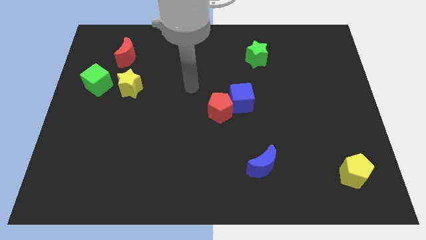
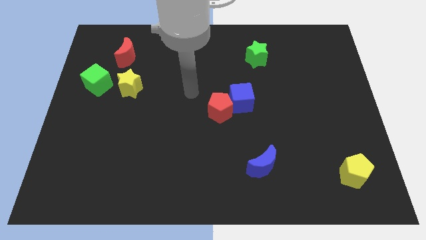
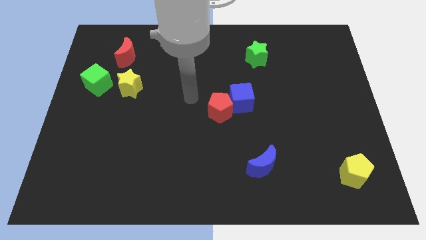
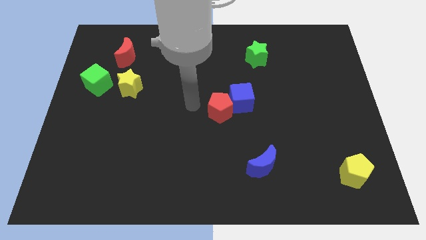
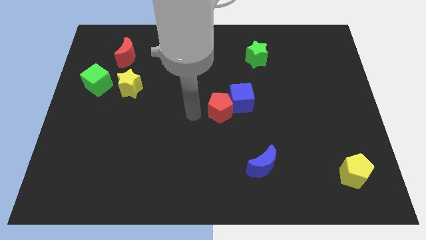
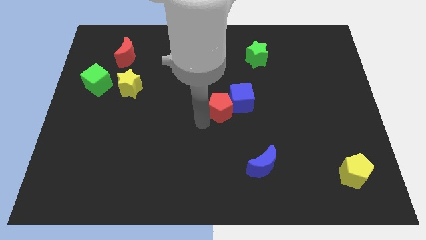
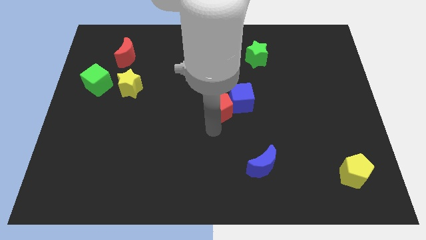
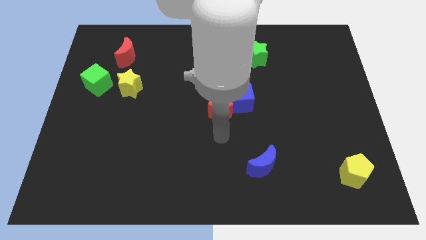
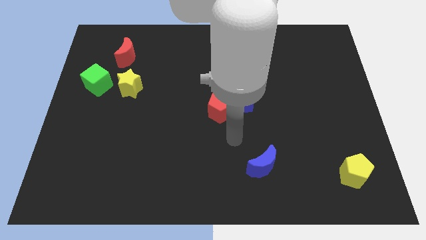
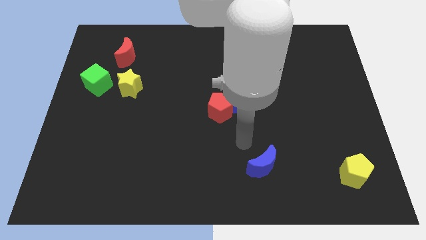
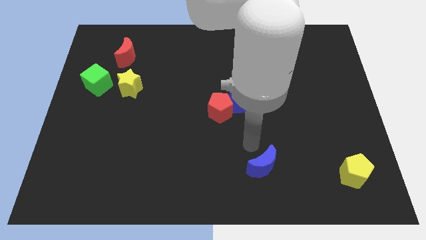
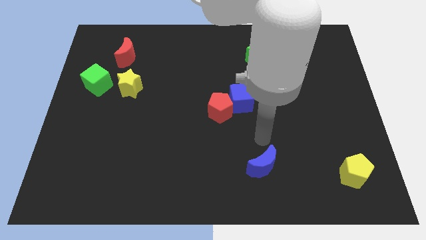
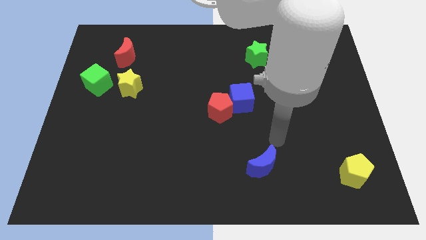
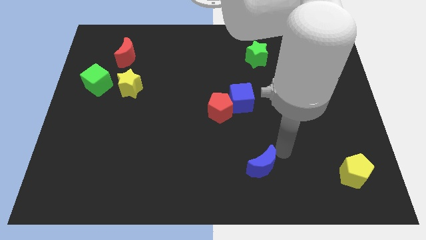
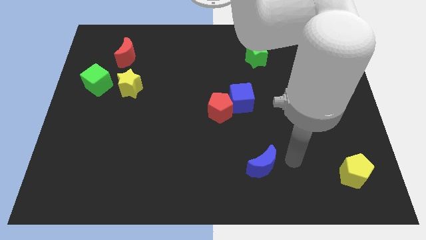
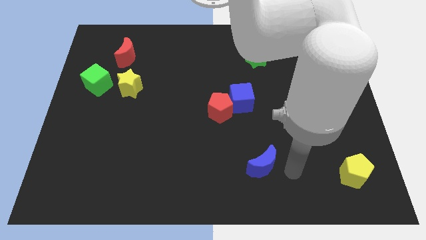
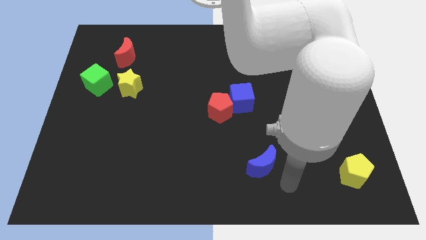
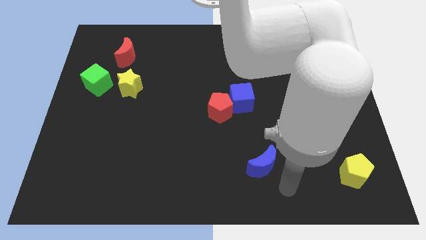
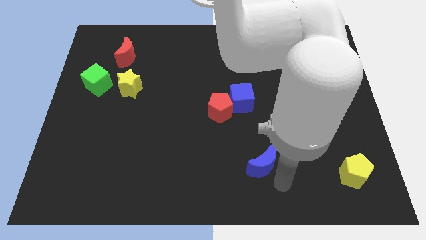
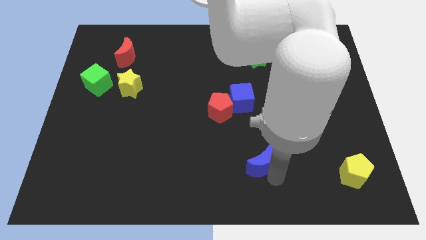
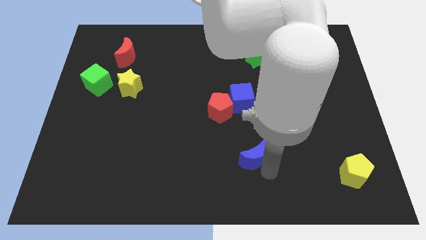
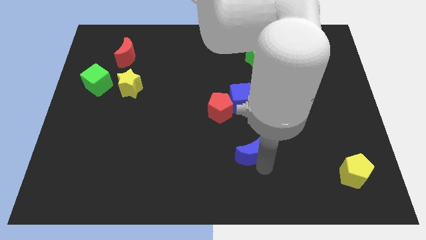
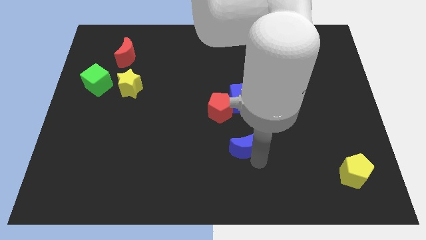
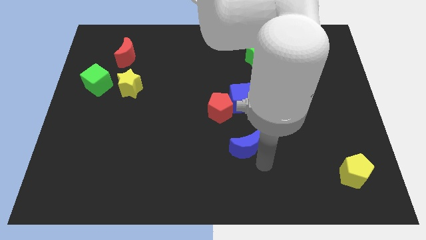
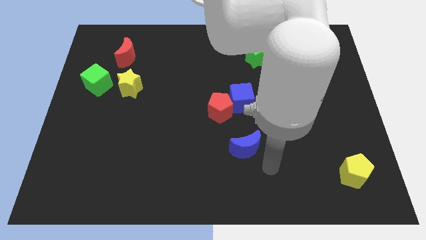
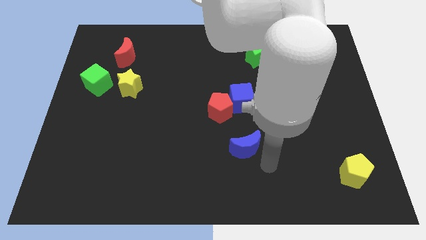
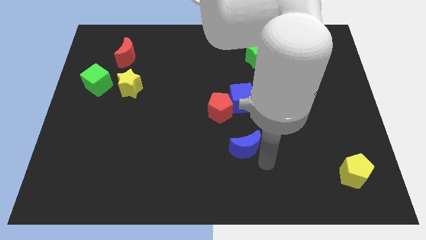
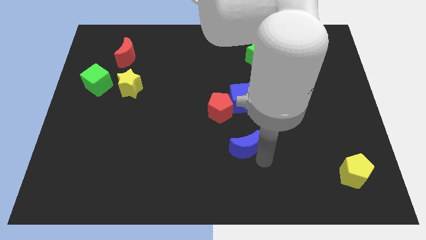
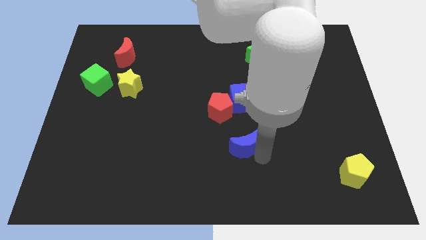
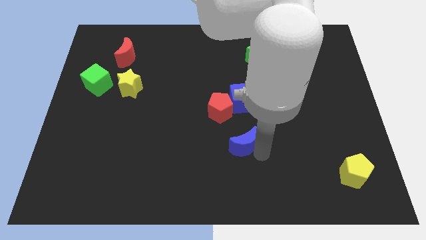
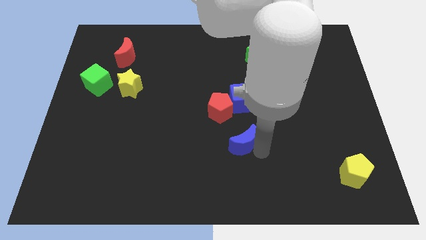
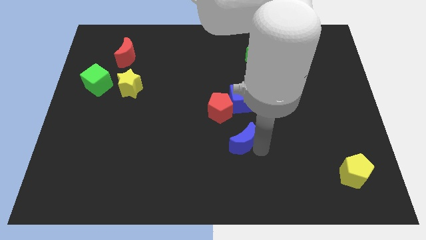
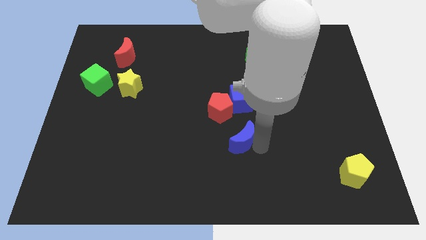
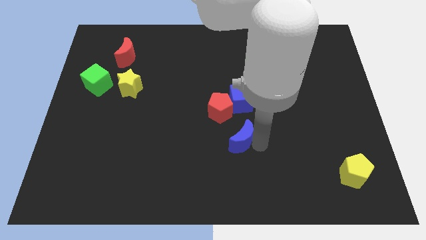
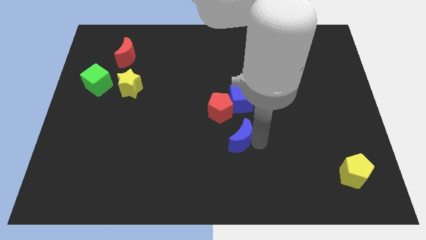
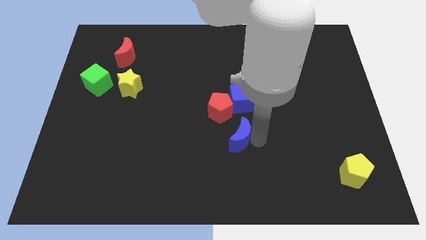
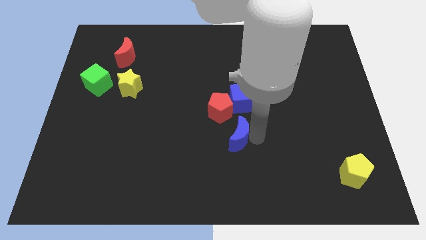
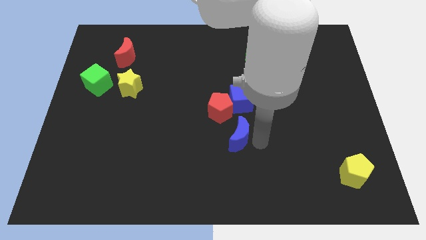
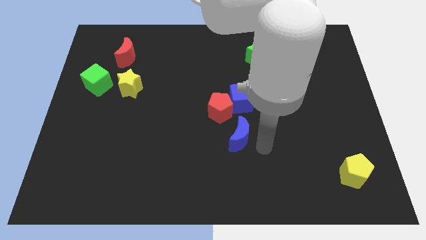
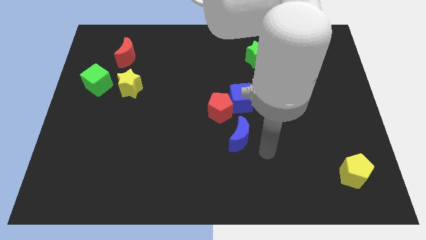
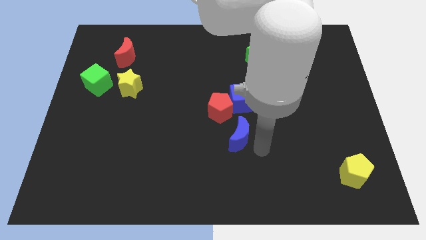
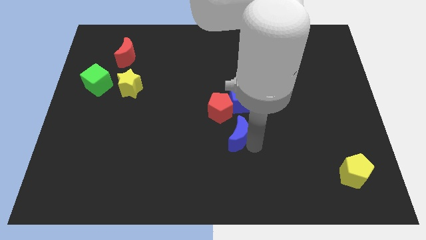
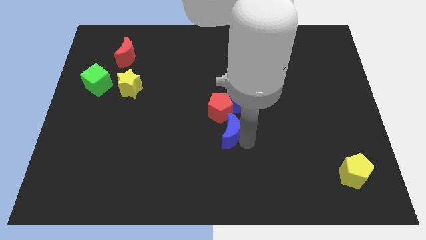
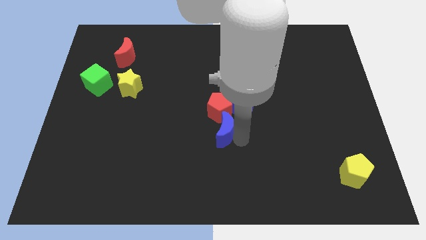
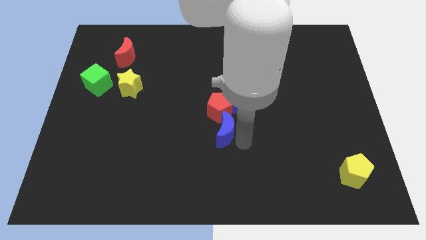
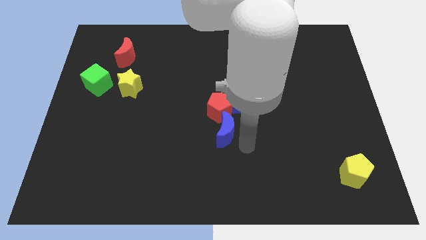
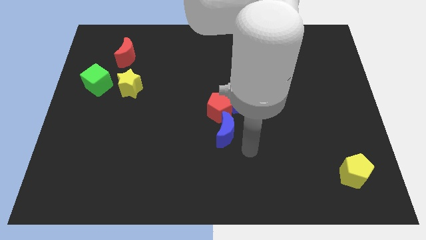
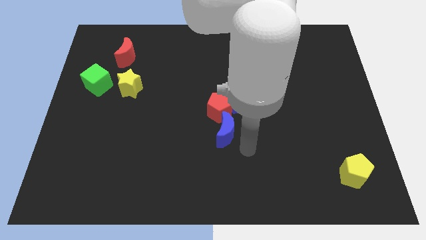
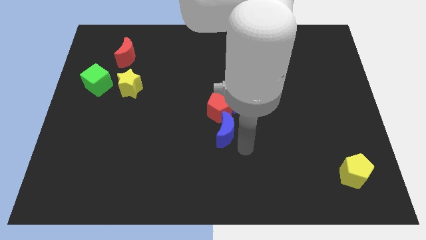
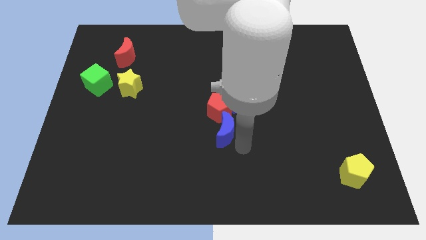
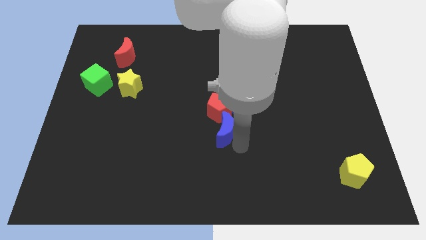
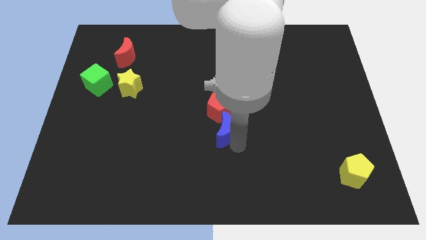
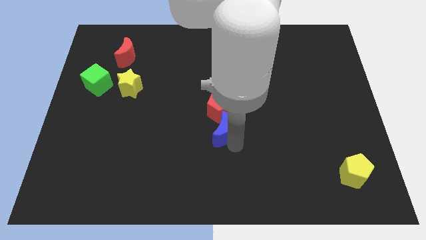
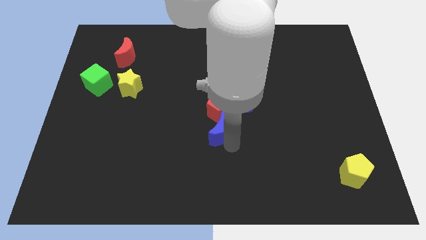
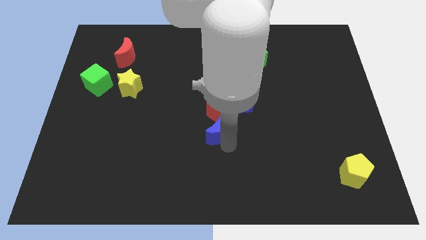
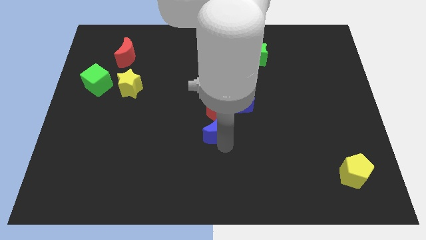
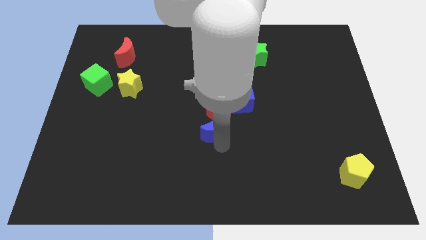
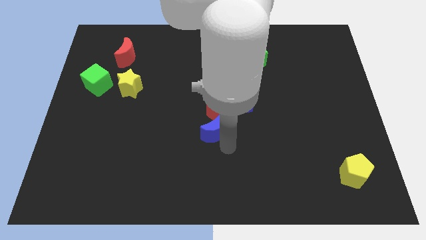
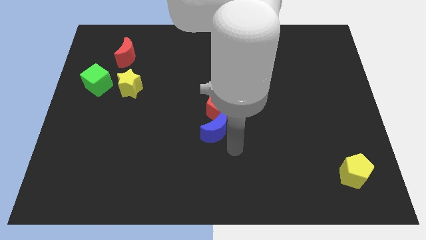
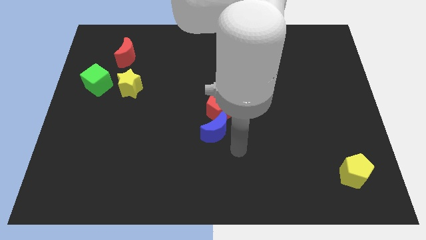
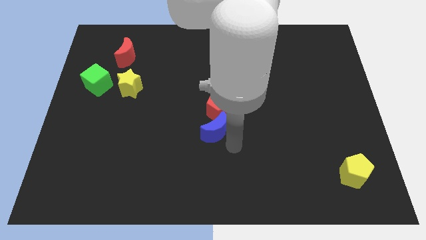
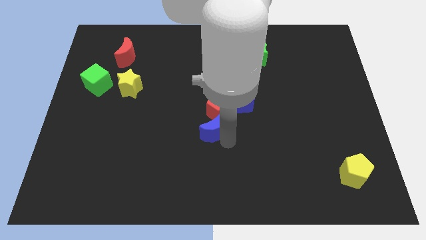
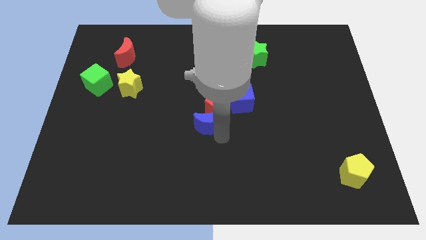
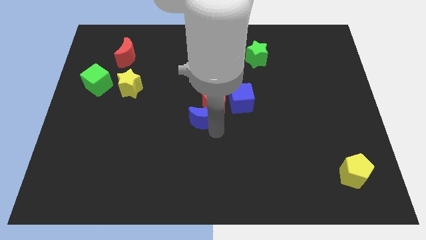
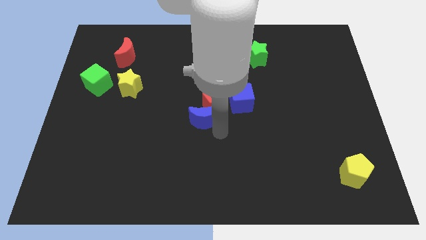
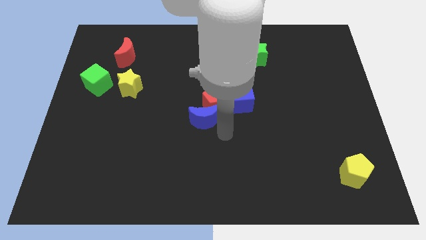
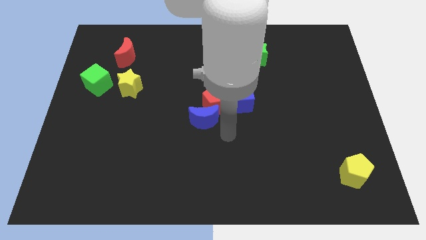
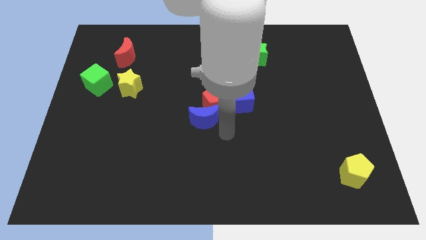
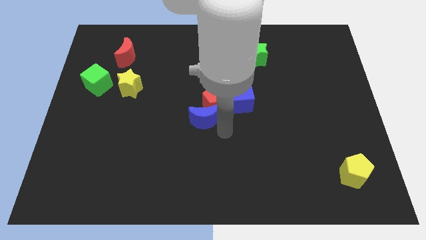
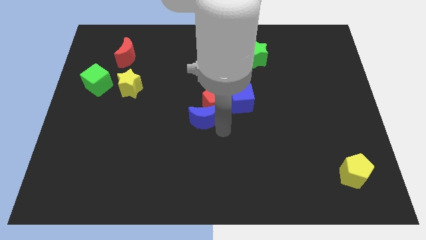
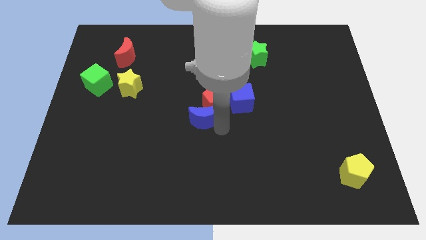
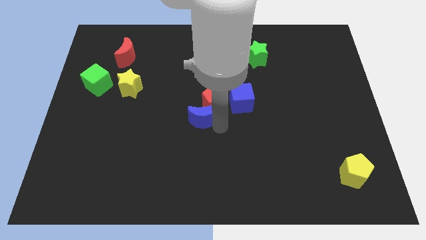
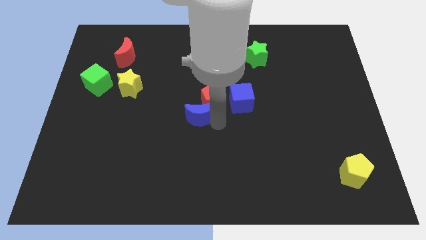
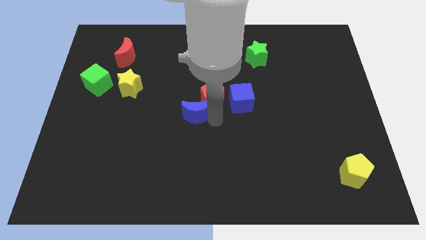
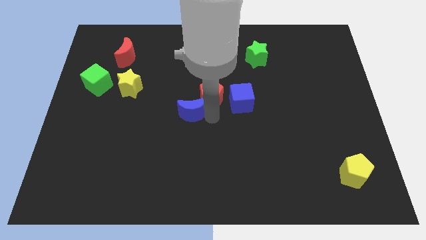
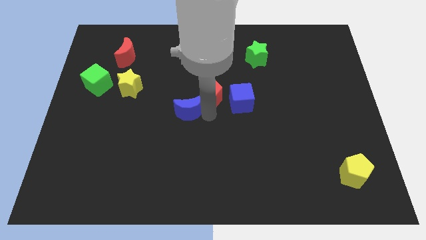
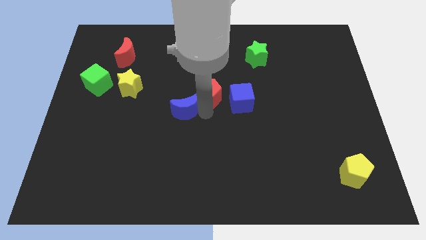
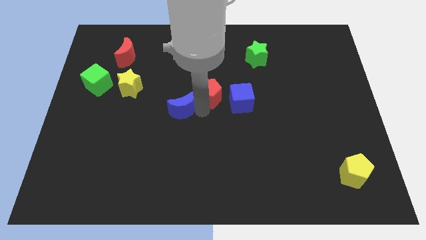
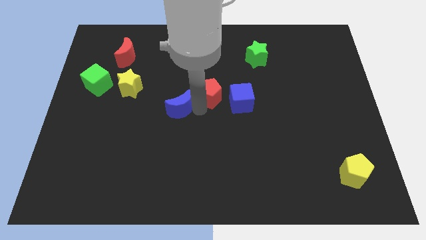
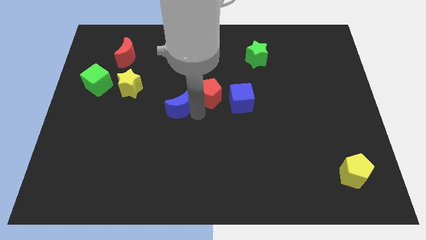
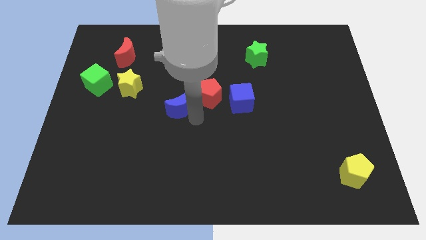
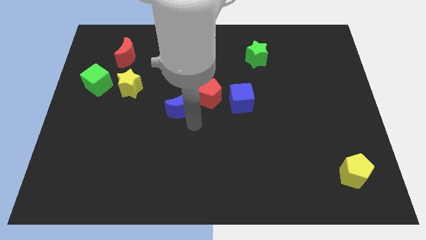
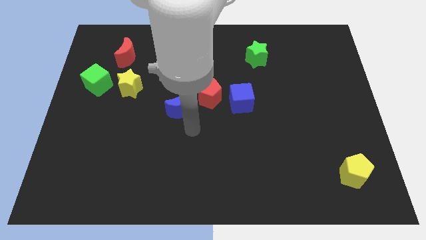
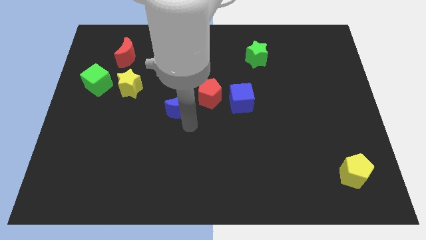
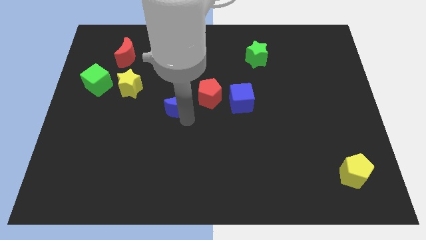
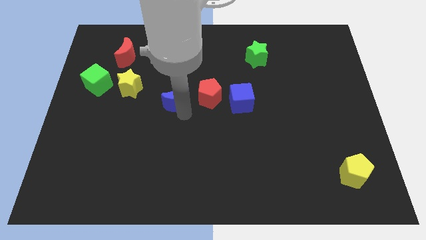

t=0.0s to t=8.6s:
put the blue moon just right of the yellow star
